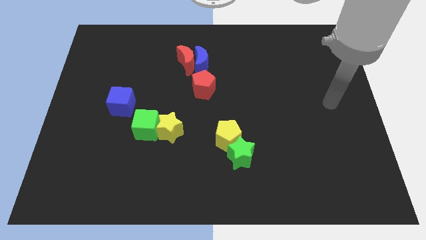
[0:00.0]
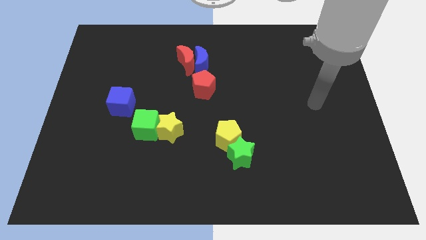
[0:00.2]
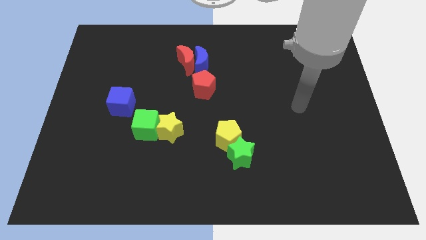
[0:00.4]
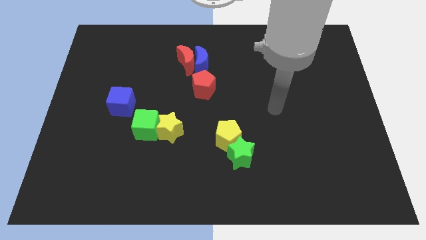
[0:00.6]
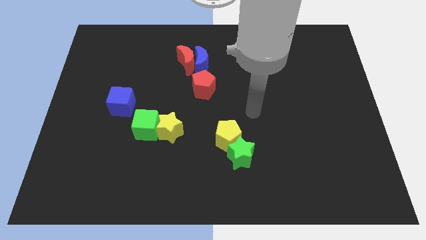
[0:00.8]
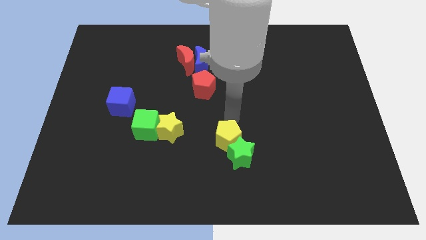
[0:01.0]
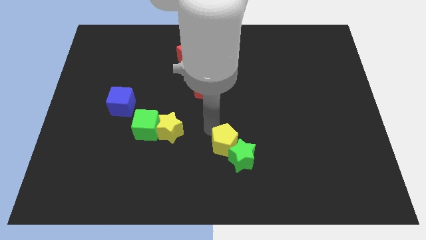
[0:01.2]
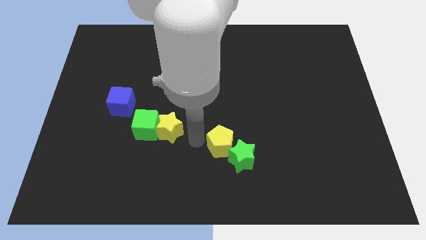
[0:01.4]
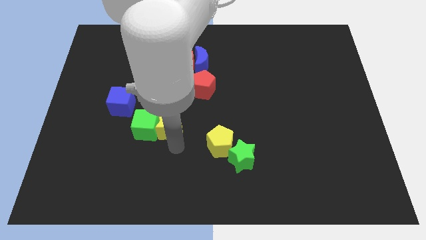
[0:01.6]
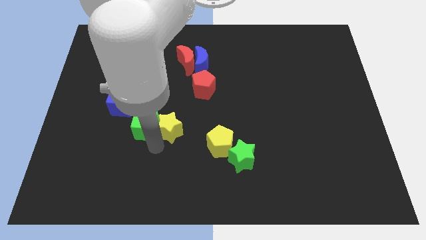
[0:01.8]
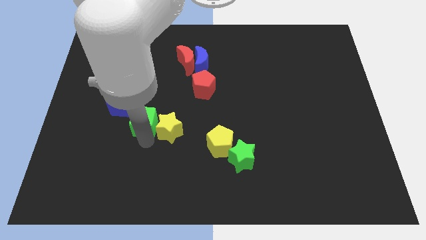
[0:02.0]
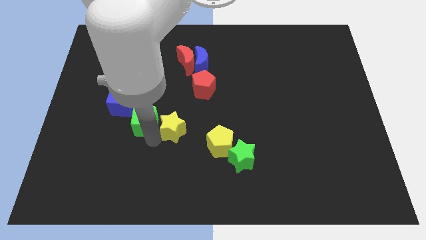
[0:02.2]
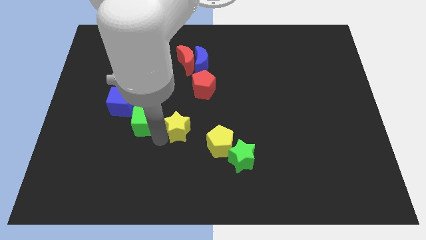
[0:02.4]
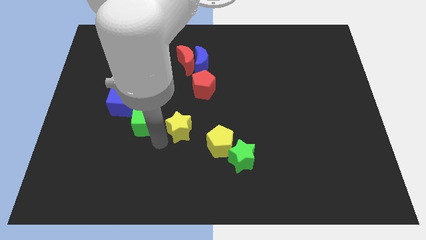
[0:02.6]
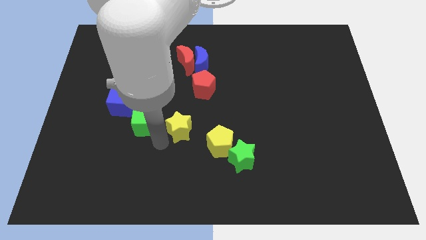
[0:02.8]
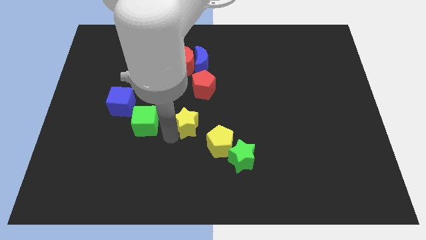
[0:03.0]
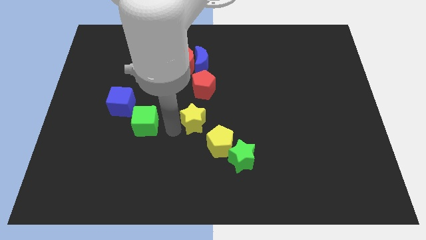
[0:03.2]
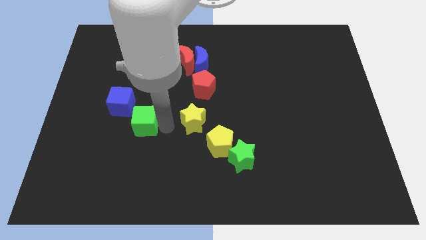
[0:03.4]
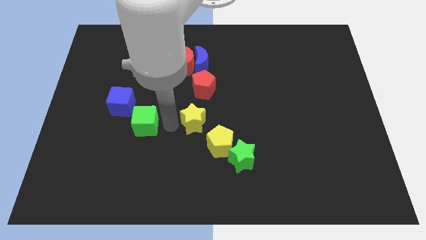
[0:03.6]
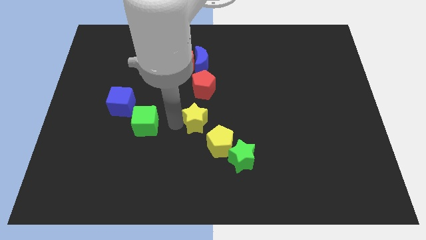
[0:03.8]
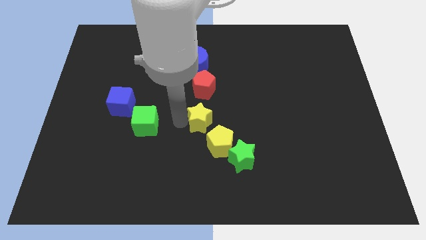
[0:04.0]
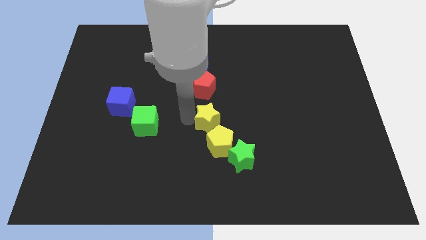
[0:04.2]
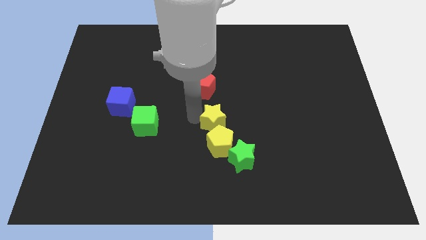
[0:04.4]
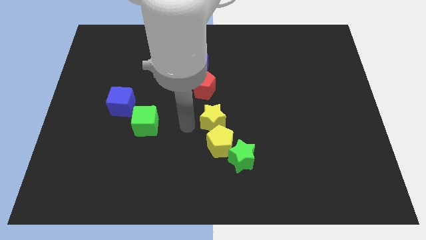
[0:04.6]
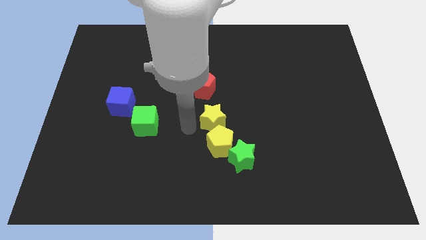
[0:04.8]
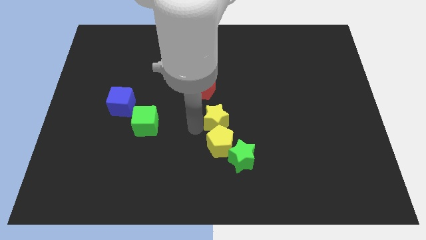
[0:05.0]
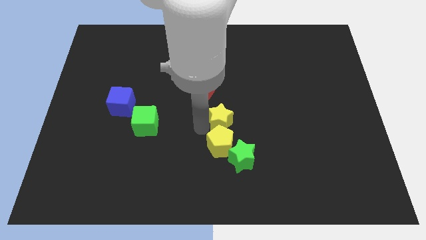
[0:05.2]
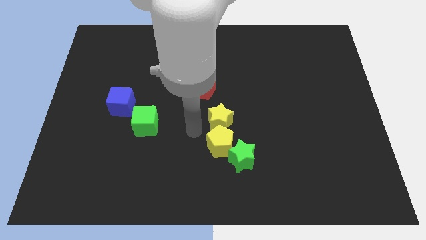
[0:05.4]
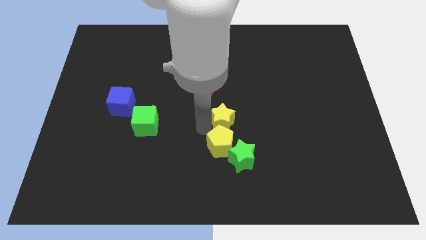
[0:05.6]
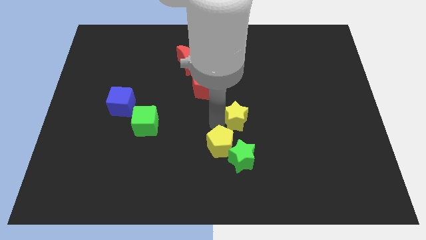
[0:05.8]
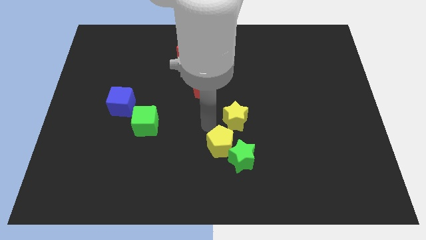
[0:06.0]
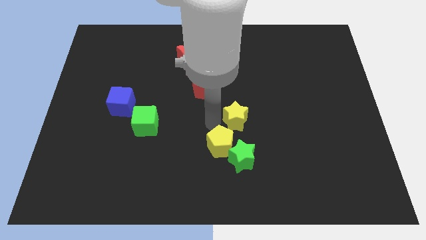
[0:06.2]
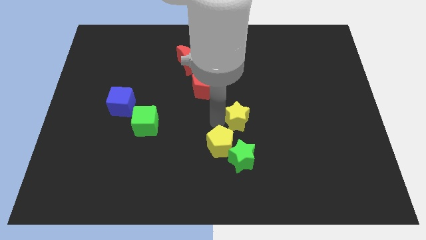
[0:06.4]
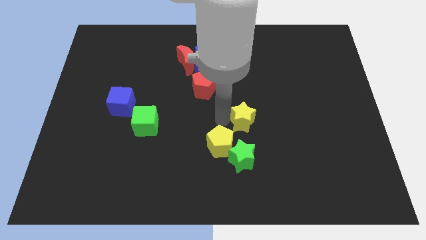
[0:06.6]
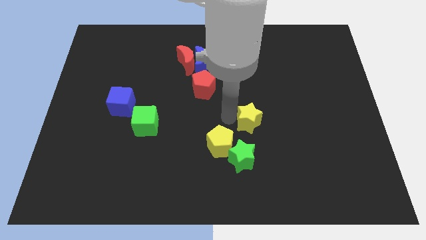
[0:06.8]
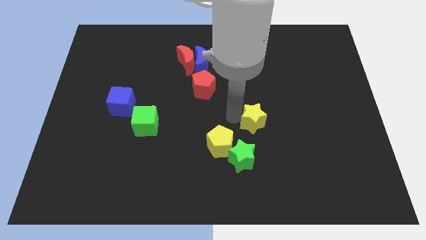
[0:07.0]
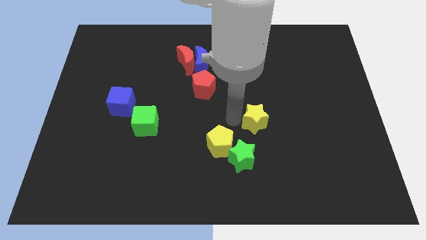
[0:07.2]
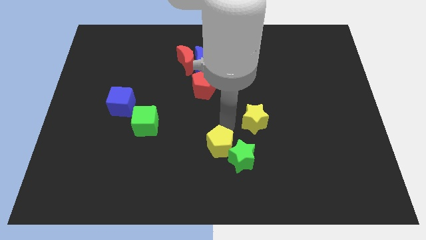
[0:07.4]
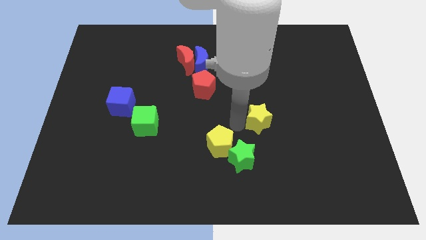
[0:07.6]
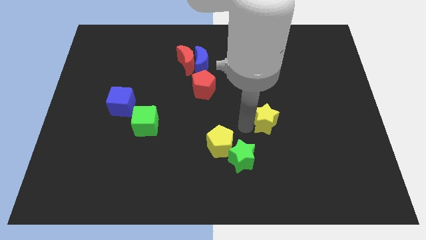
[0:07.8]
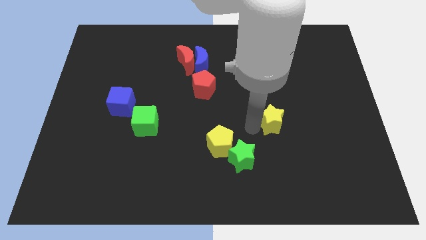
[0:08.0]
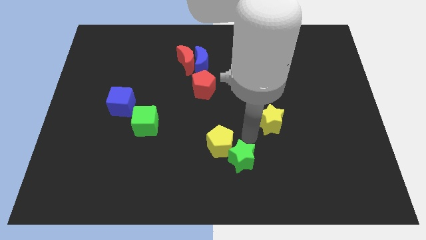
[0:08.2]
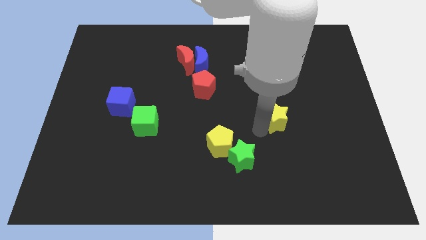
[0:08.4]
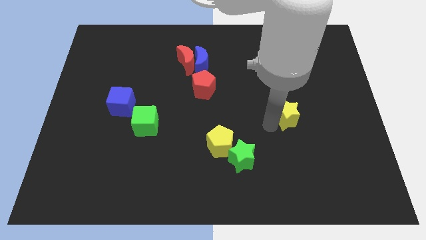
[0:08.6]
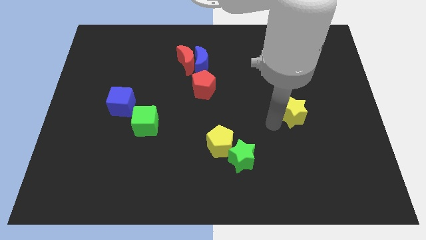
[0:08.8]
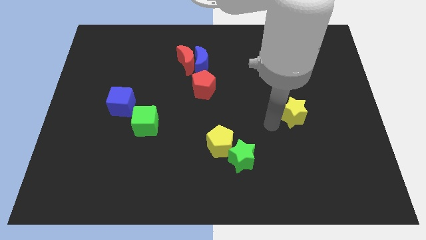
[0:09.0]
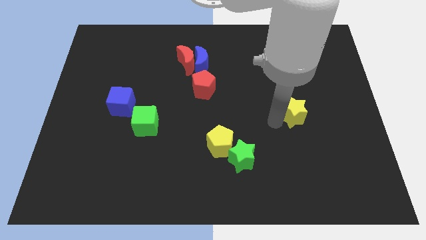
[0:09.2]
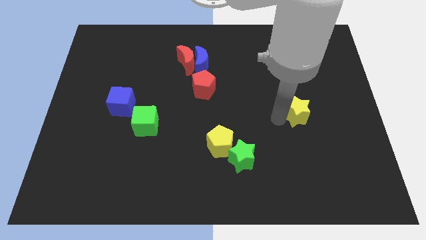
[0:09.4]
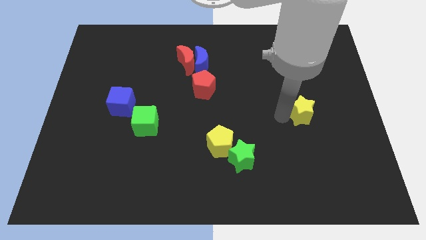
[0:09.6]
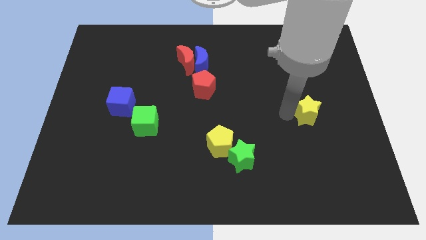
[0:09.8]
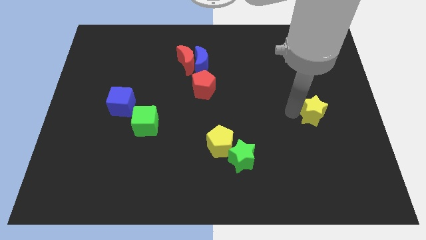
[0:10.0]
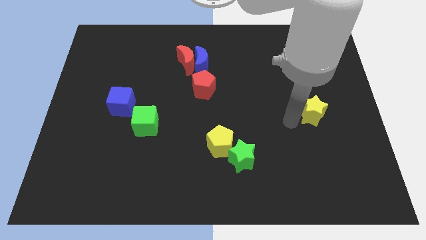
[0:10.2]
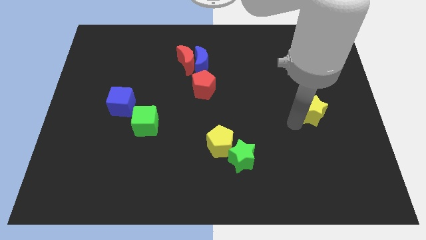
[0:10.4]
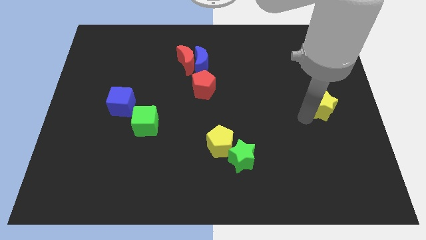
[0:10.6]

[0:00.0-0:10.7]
slide the yellow star to the right side

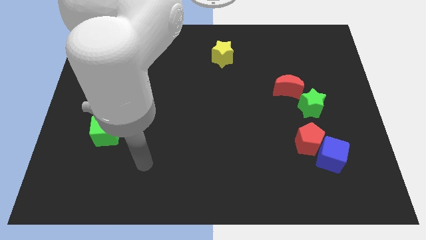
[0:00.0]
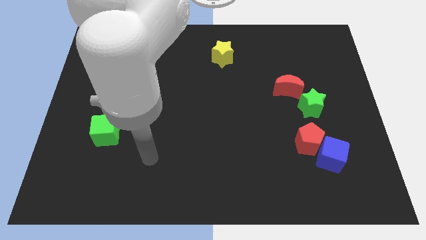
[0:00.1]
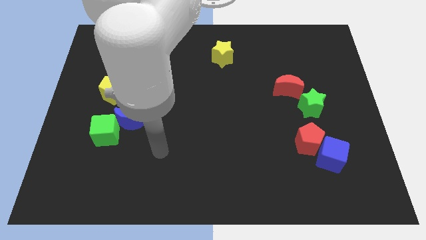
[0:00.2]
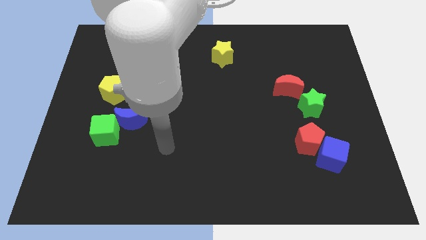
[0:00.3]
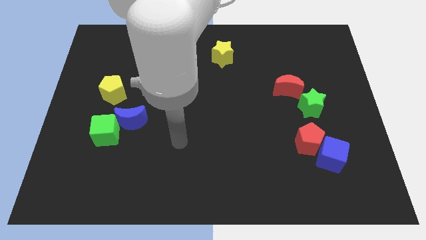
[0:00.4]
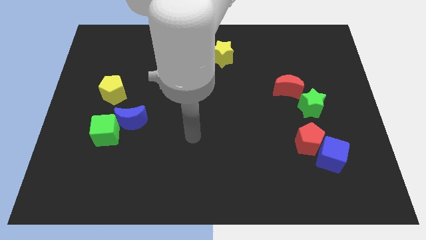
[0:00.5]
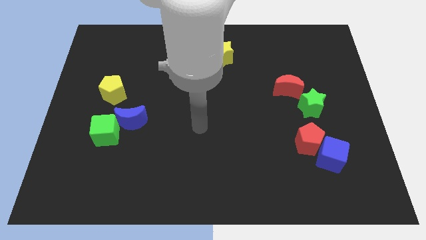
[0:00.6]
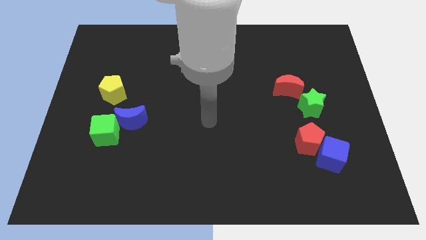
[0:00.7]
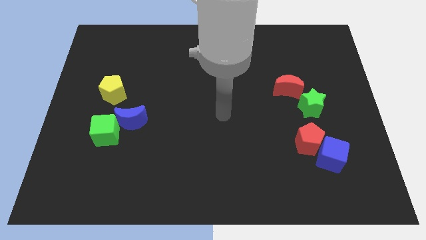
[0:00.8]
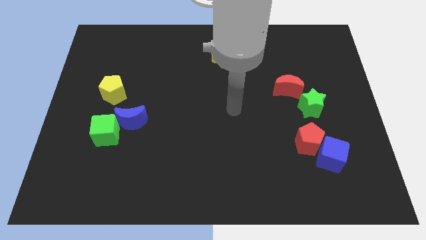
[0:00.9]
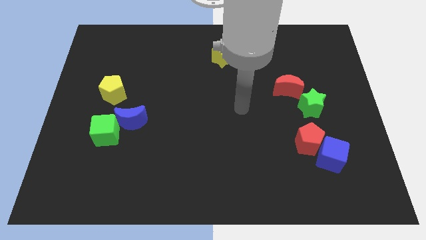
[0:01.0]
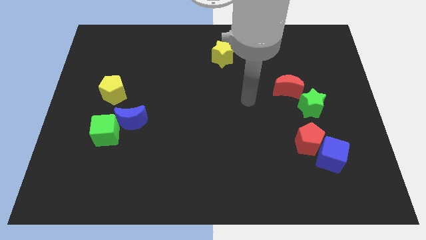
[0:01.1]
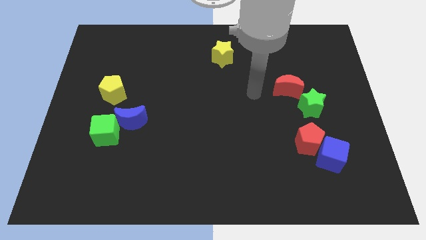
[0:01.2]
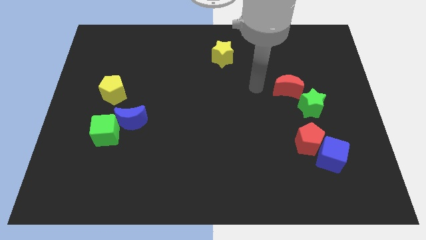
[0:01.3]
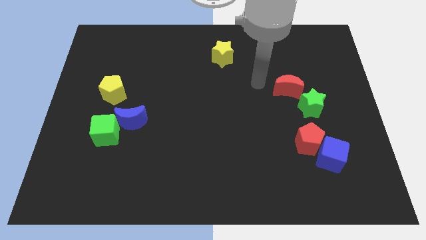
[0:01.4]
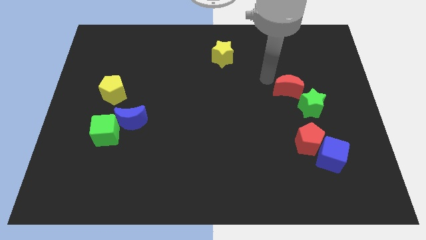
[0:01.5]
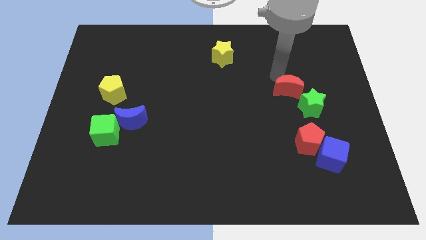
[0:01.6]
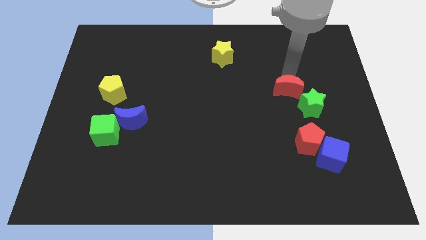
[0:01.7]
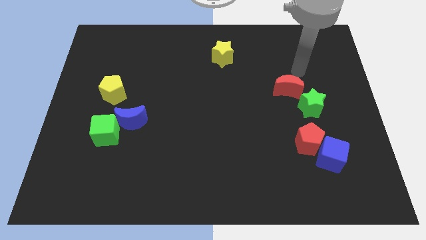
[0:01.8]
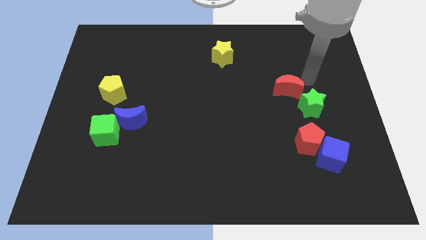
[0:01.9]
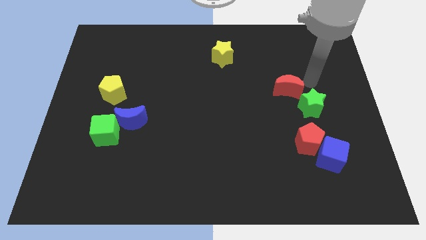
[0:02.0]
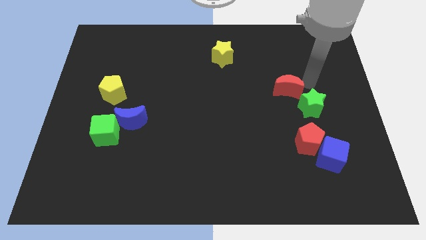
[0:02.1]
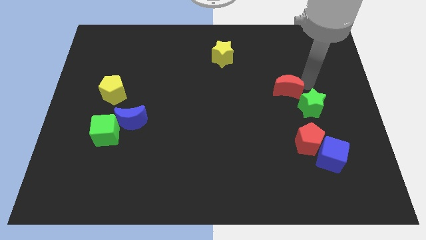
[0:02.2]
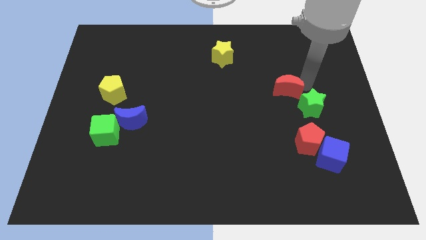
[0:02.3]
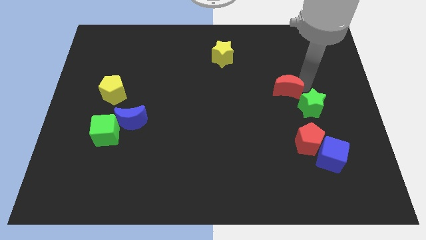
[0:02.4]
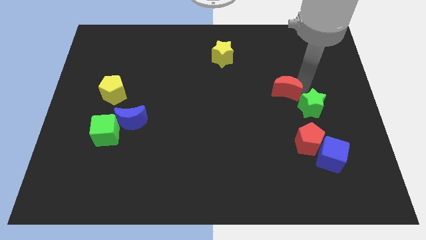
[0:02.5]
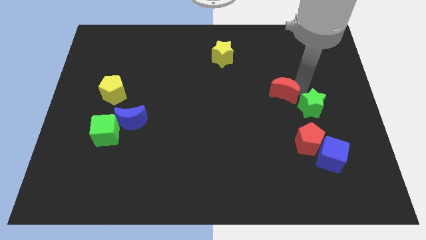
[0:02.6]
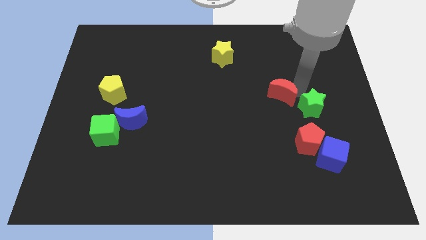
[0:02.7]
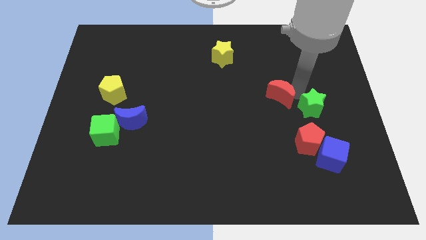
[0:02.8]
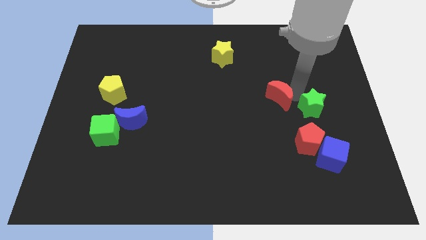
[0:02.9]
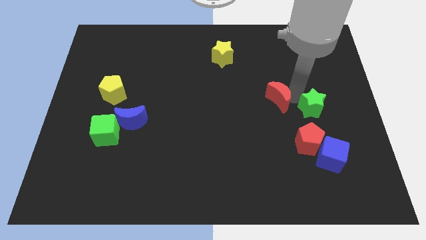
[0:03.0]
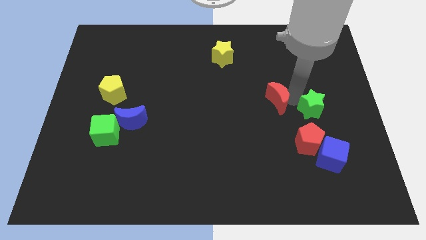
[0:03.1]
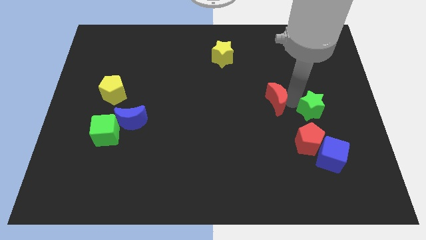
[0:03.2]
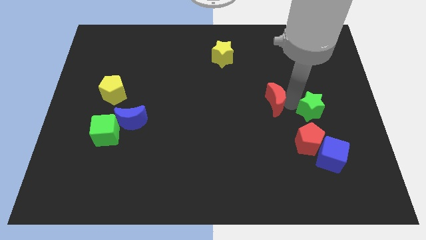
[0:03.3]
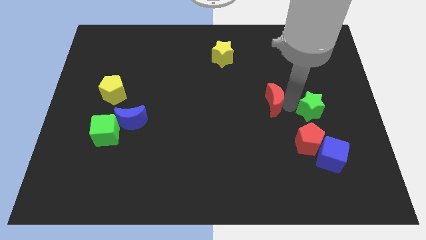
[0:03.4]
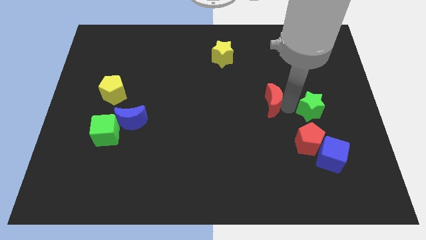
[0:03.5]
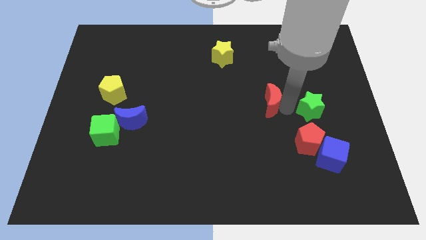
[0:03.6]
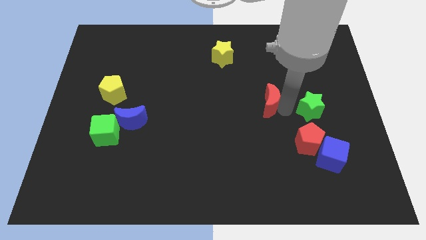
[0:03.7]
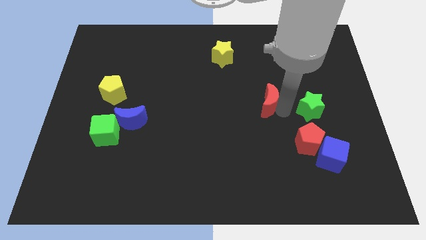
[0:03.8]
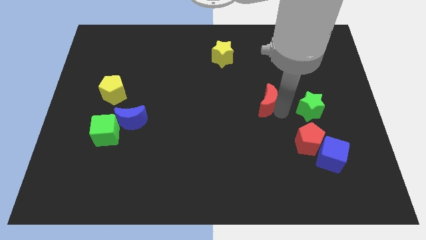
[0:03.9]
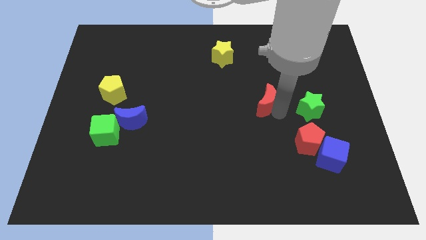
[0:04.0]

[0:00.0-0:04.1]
push the red moon to the center
